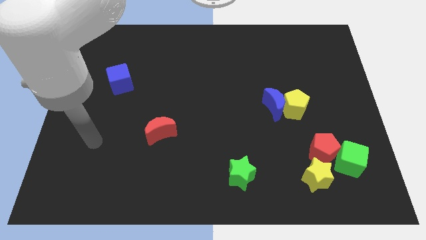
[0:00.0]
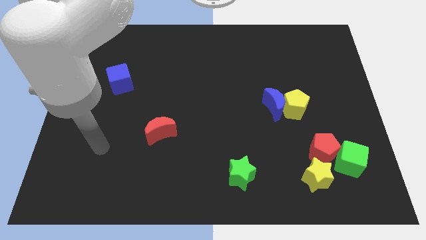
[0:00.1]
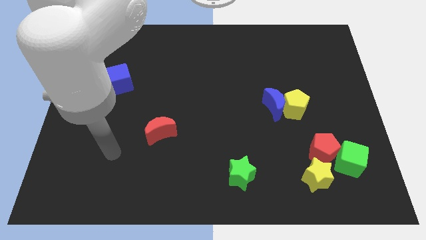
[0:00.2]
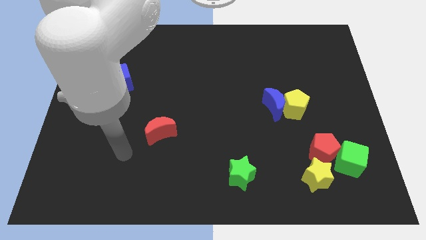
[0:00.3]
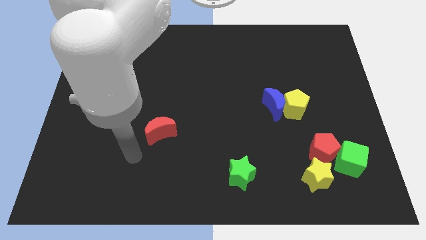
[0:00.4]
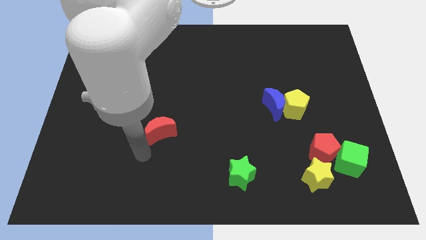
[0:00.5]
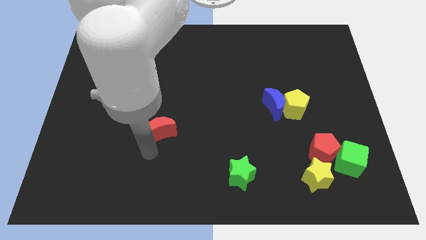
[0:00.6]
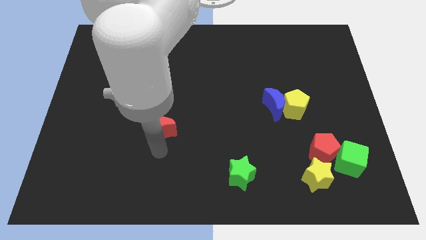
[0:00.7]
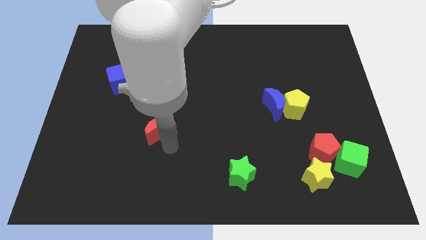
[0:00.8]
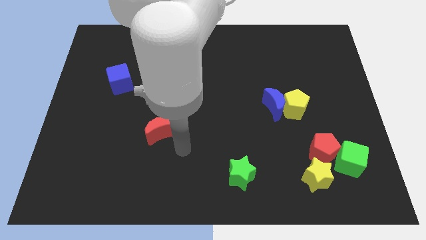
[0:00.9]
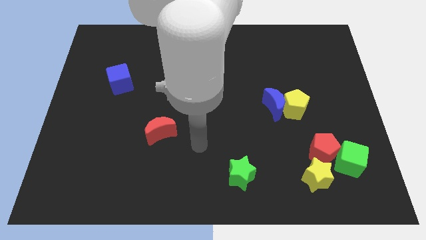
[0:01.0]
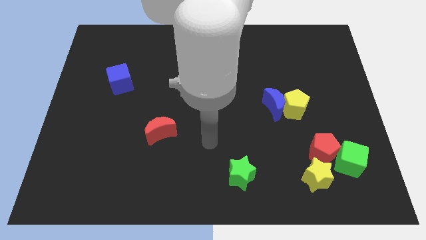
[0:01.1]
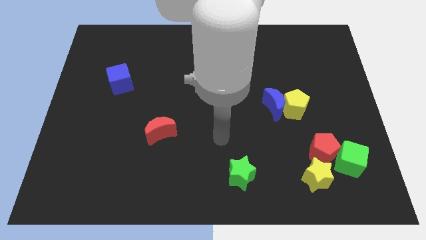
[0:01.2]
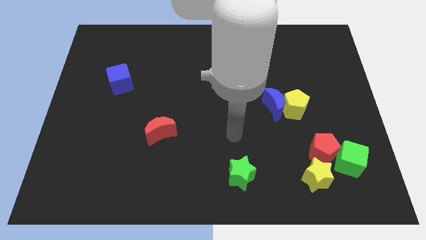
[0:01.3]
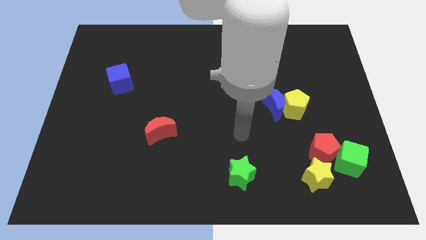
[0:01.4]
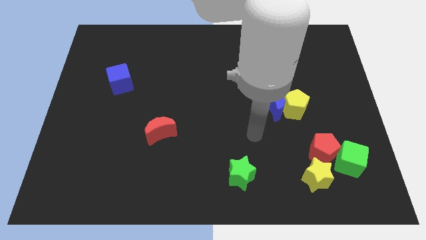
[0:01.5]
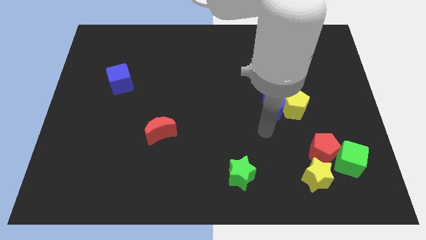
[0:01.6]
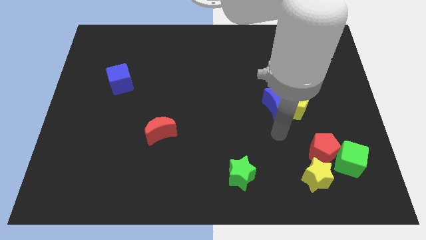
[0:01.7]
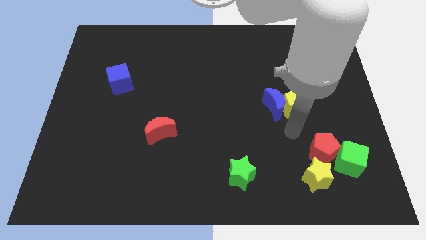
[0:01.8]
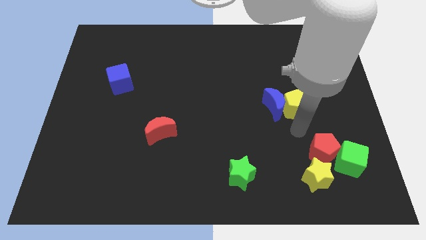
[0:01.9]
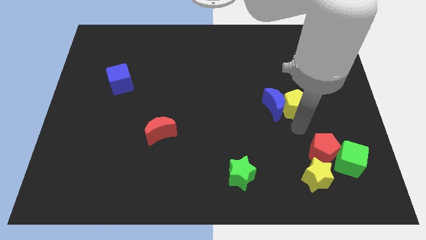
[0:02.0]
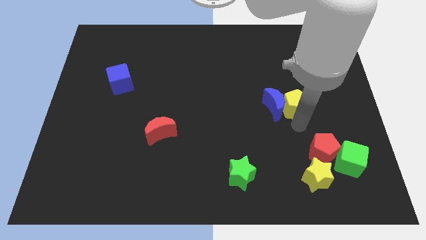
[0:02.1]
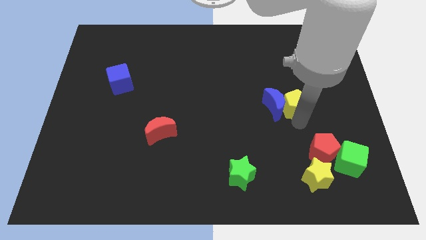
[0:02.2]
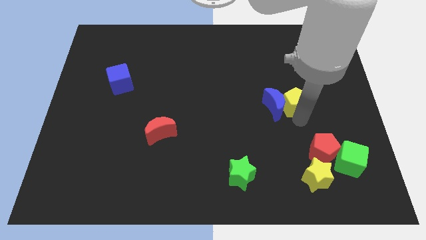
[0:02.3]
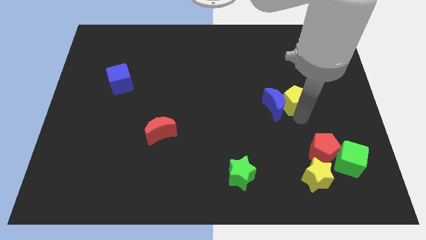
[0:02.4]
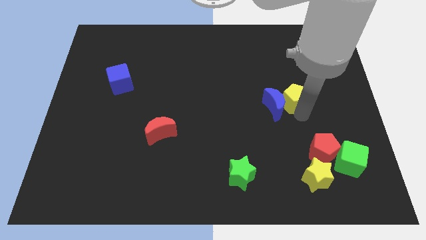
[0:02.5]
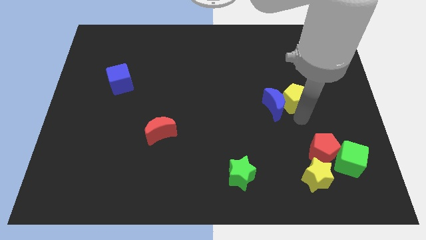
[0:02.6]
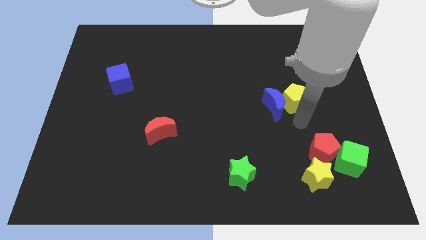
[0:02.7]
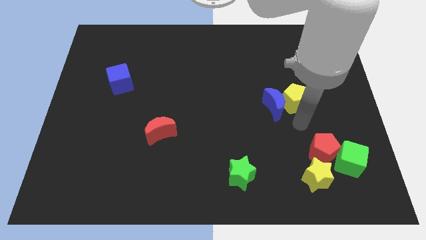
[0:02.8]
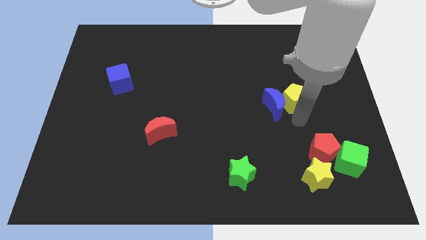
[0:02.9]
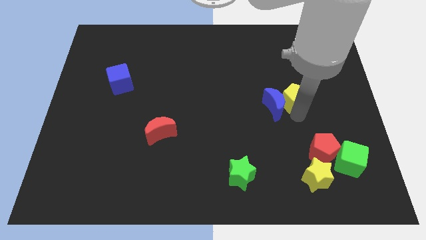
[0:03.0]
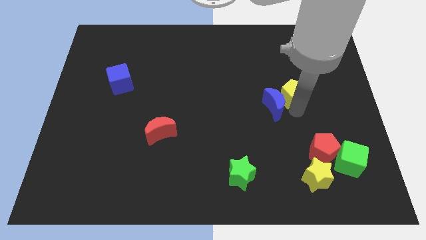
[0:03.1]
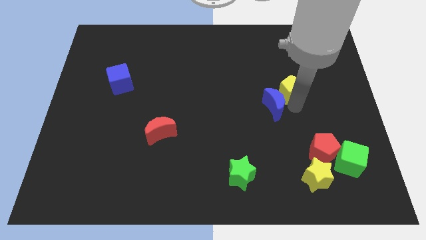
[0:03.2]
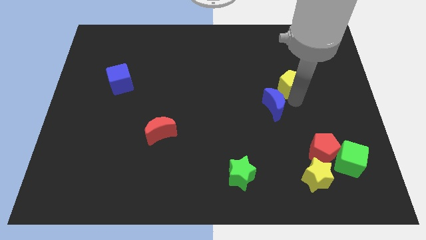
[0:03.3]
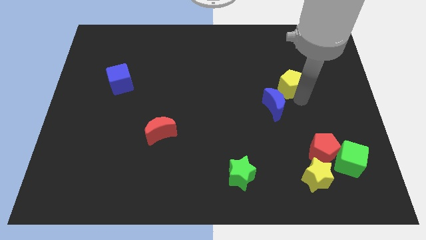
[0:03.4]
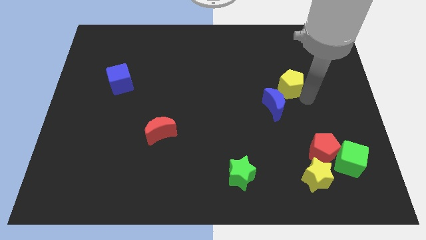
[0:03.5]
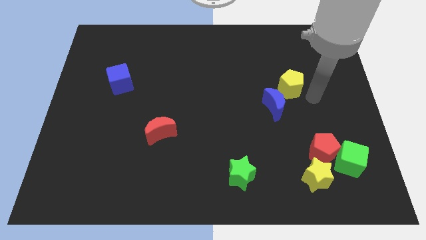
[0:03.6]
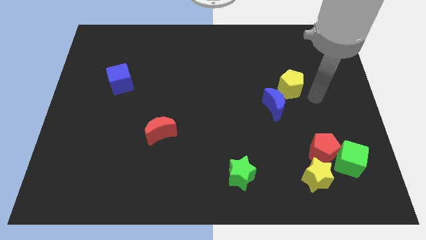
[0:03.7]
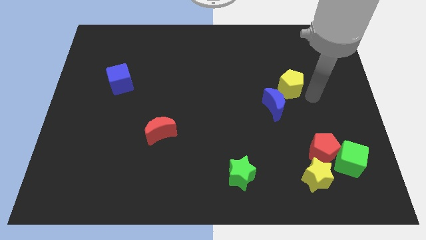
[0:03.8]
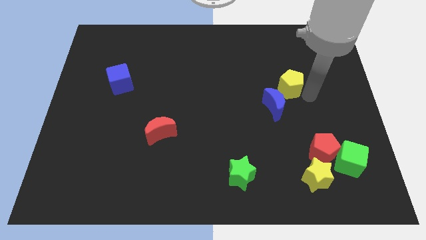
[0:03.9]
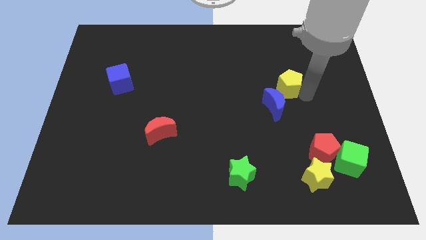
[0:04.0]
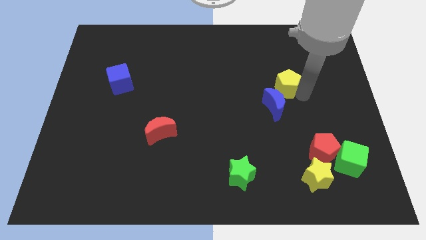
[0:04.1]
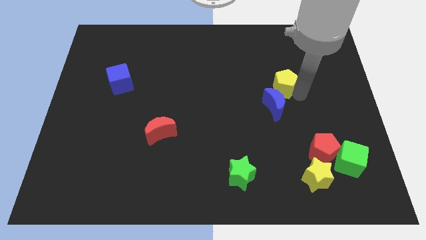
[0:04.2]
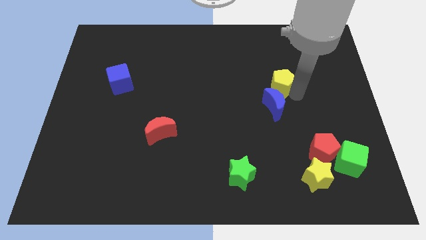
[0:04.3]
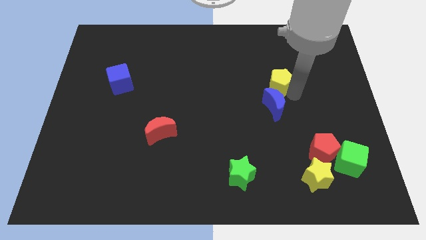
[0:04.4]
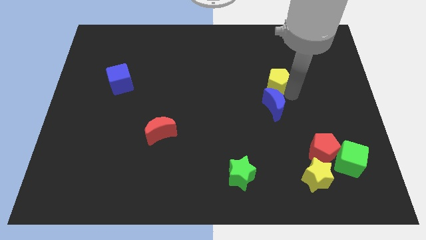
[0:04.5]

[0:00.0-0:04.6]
move the yellow pentagon a little up and to the left diagonally

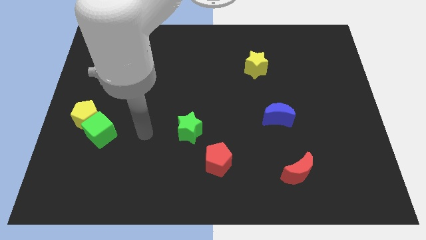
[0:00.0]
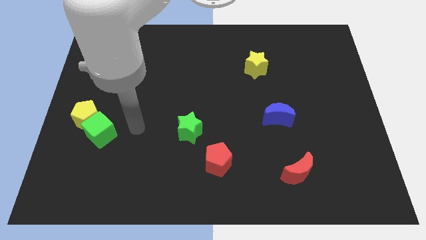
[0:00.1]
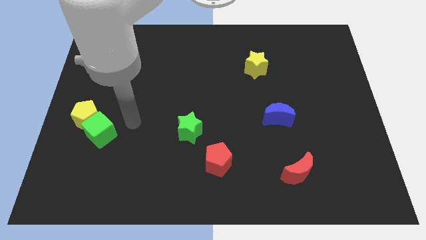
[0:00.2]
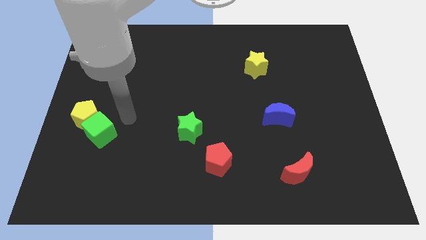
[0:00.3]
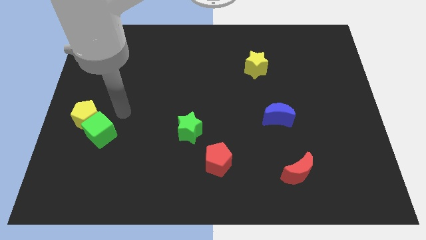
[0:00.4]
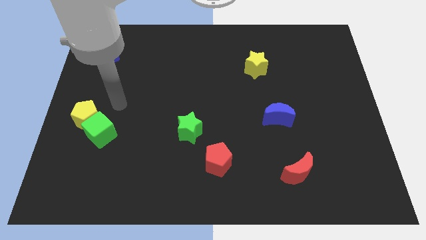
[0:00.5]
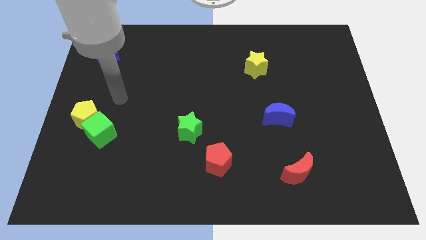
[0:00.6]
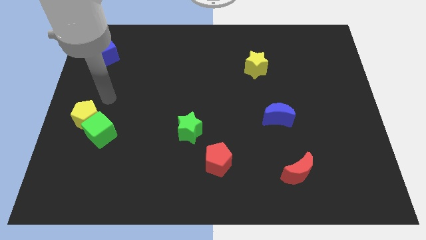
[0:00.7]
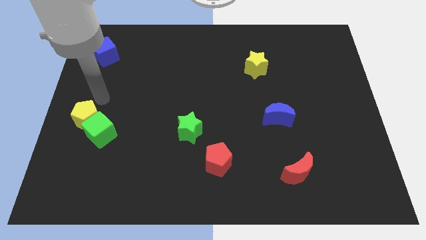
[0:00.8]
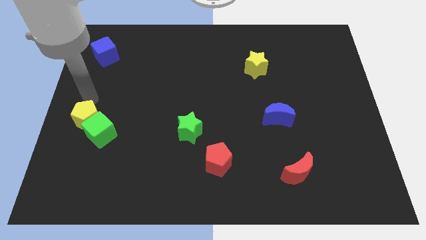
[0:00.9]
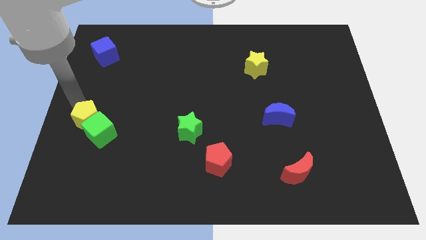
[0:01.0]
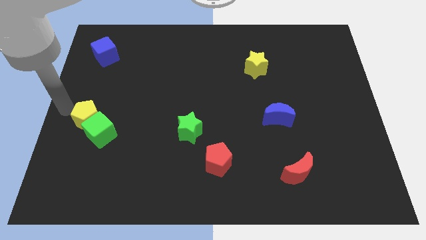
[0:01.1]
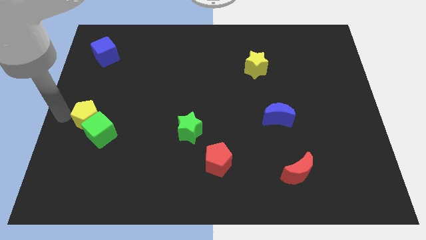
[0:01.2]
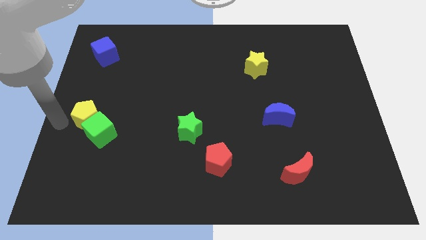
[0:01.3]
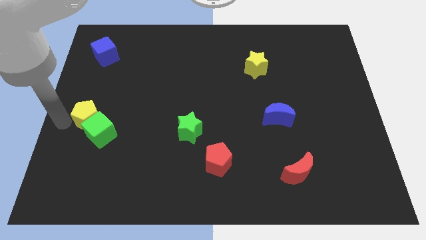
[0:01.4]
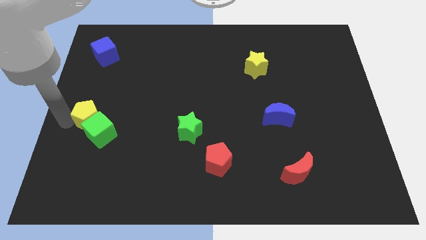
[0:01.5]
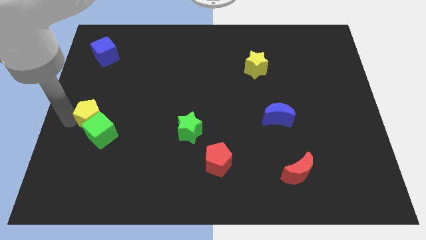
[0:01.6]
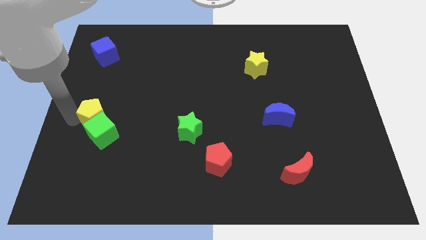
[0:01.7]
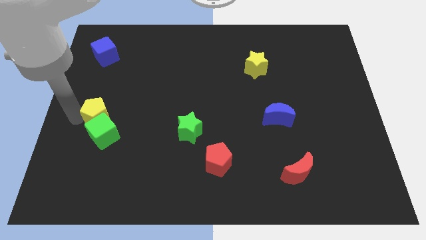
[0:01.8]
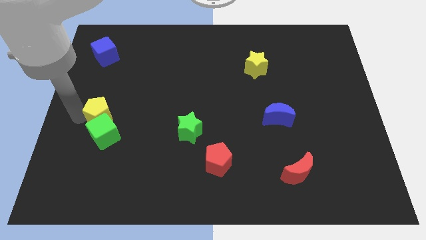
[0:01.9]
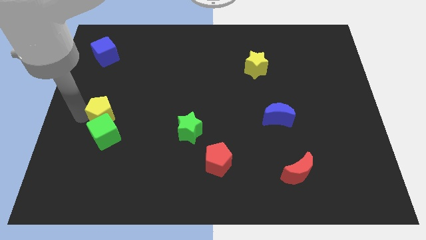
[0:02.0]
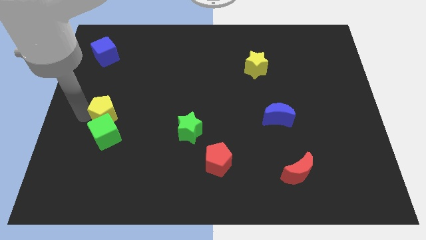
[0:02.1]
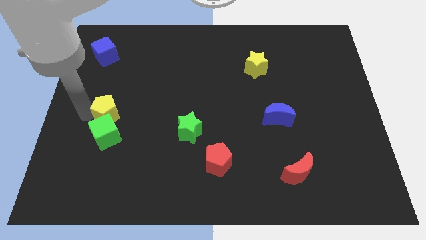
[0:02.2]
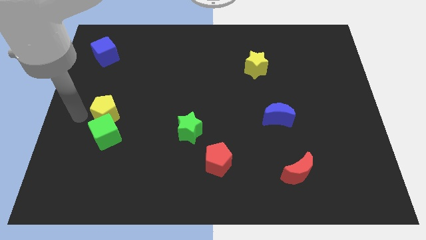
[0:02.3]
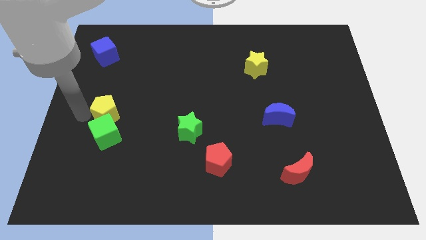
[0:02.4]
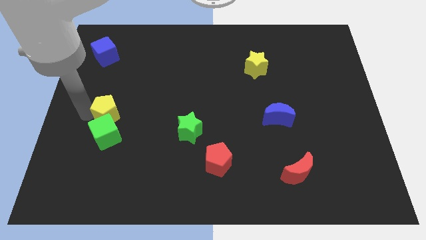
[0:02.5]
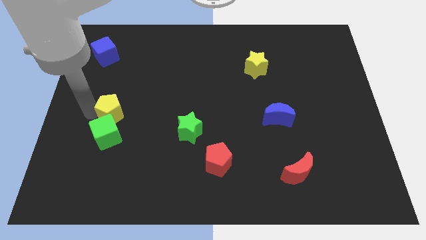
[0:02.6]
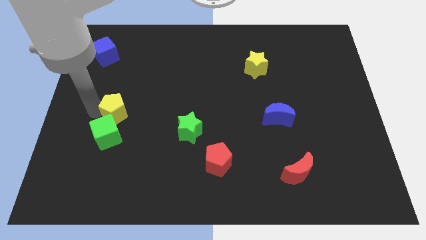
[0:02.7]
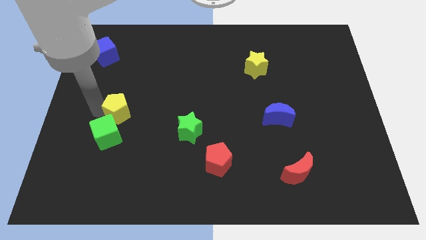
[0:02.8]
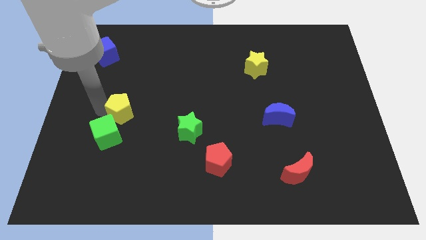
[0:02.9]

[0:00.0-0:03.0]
slightly push the yellow pentagon to the right

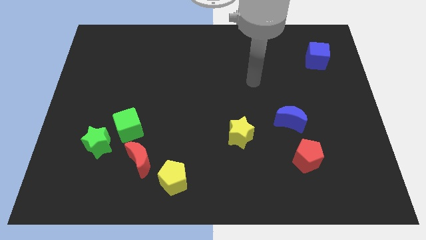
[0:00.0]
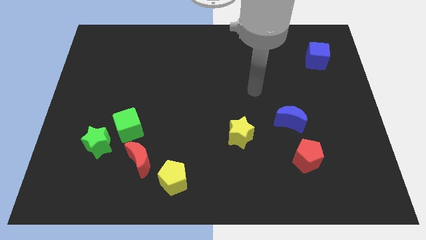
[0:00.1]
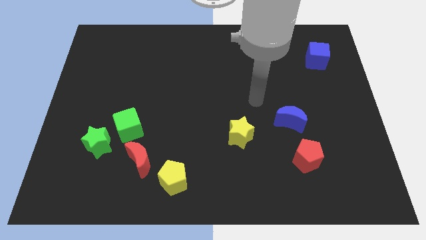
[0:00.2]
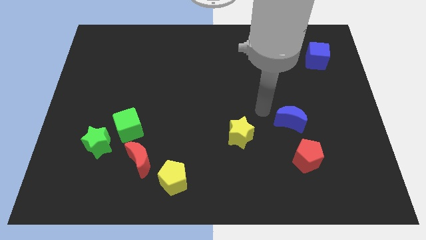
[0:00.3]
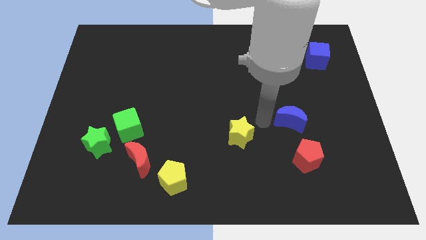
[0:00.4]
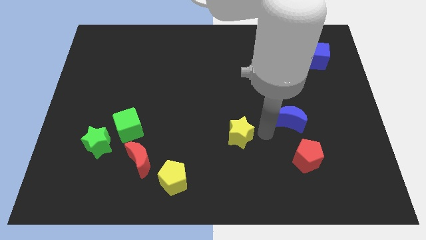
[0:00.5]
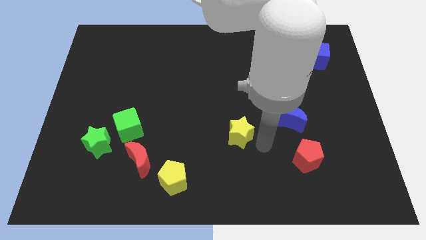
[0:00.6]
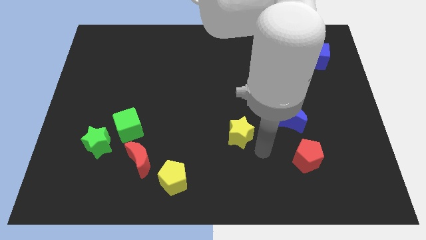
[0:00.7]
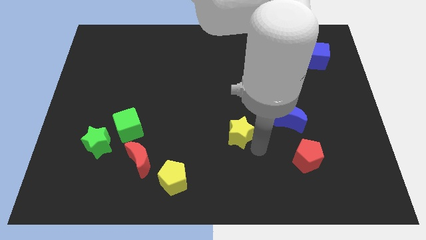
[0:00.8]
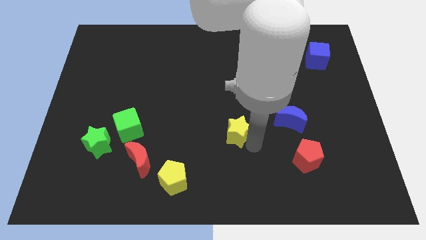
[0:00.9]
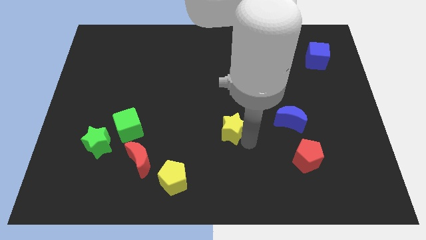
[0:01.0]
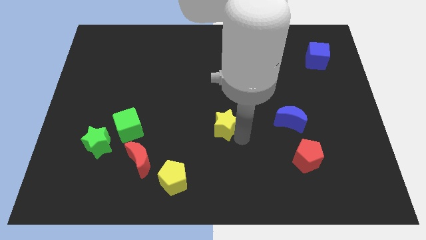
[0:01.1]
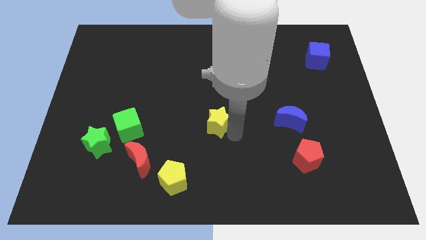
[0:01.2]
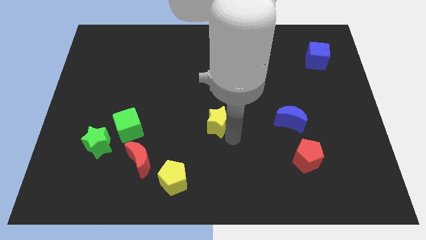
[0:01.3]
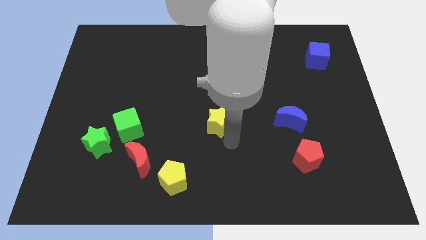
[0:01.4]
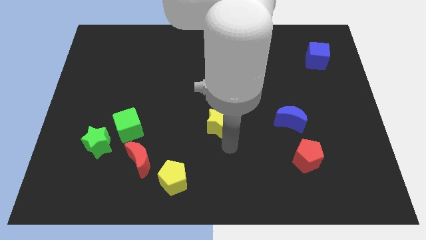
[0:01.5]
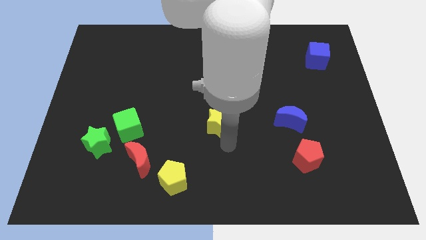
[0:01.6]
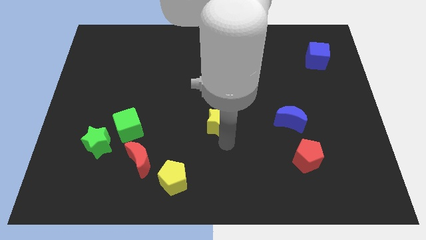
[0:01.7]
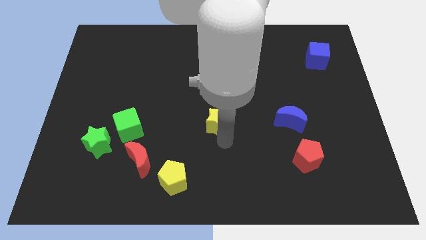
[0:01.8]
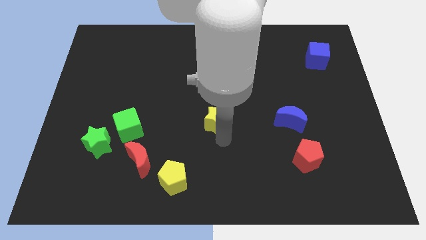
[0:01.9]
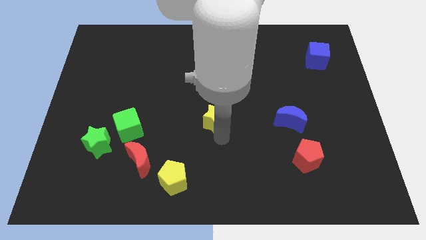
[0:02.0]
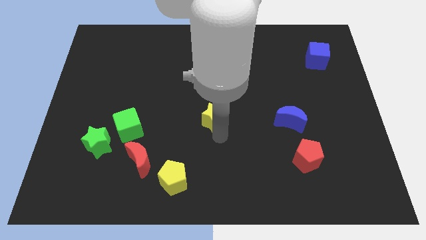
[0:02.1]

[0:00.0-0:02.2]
slightly slide the yellow star upwards and to the left diagonally
